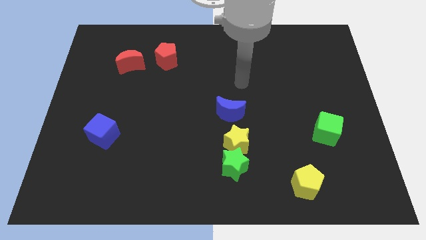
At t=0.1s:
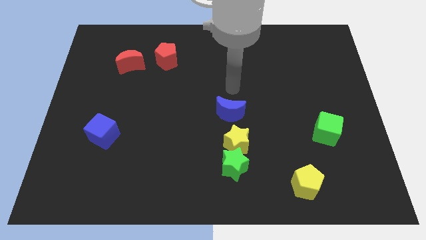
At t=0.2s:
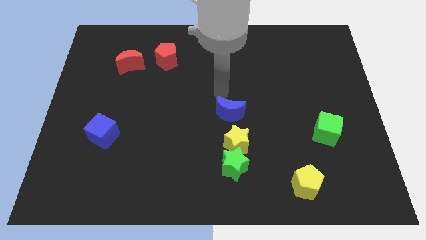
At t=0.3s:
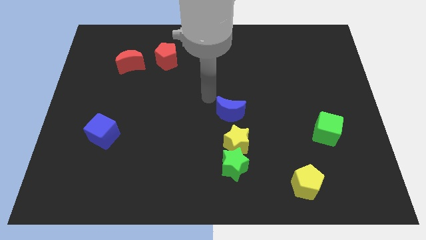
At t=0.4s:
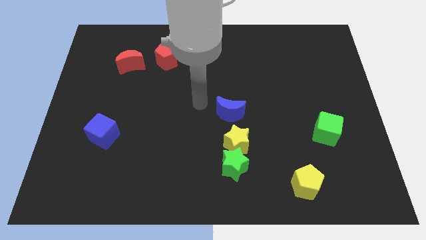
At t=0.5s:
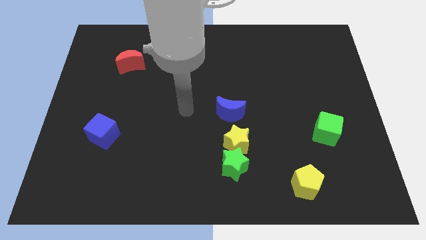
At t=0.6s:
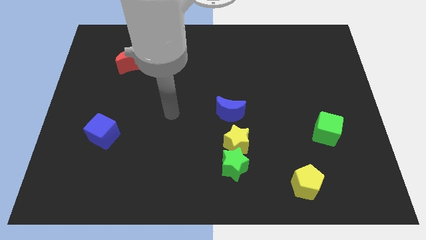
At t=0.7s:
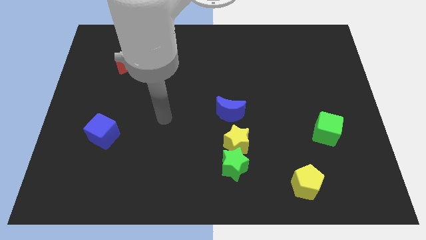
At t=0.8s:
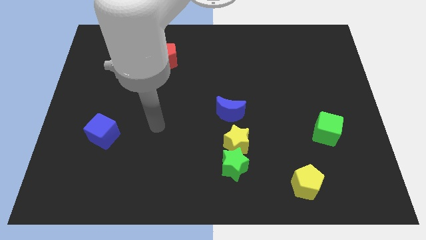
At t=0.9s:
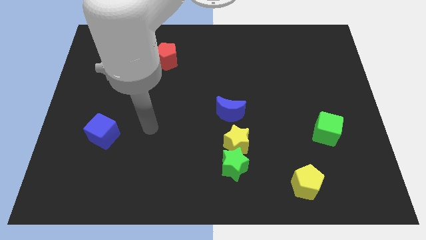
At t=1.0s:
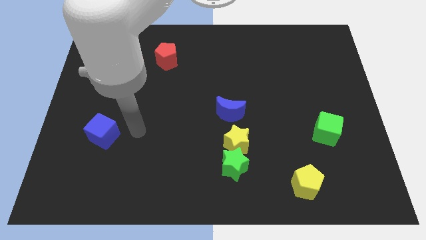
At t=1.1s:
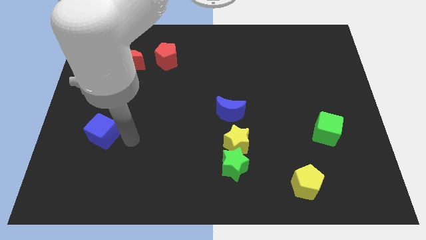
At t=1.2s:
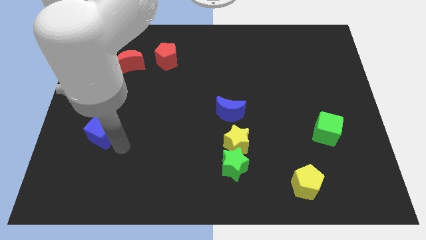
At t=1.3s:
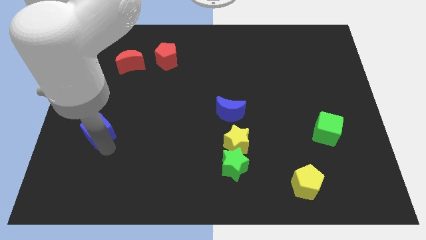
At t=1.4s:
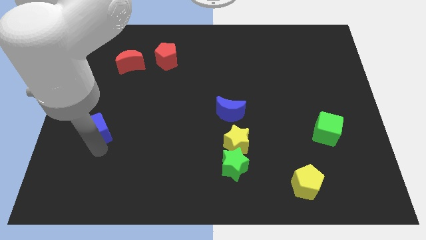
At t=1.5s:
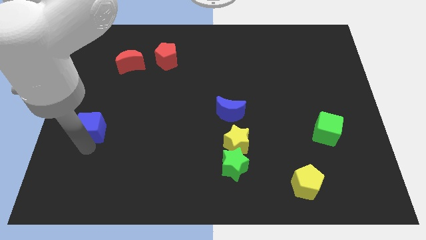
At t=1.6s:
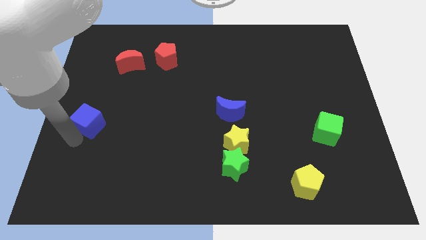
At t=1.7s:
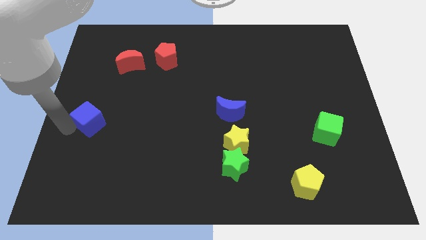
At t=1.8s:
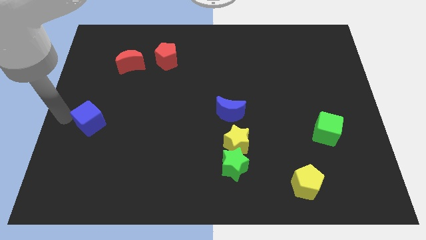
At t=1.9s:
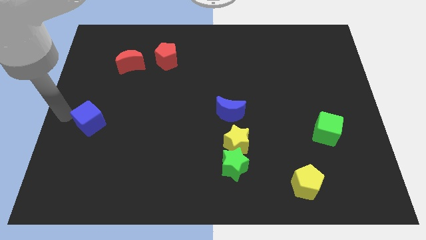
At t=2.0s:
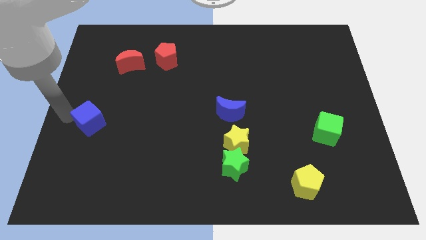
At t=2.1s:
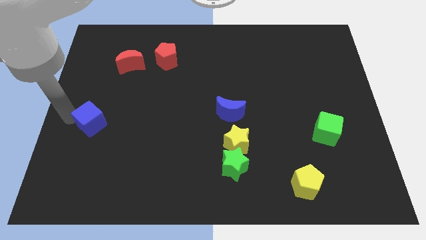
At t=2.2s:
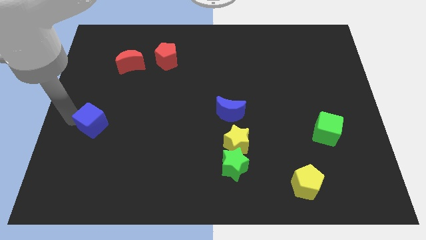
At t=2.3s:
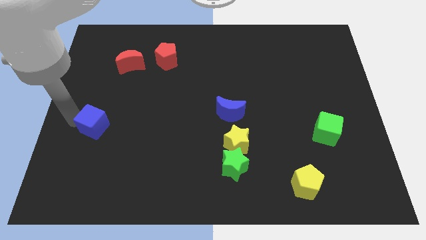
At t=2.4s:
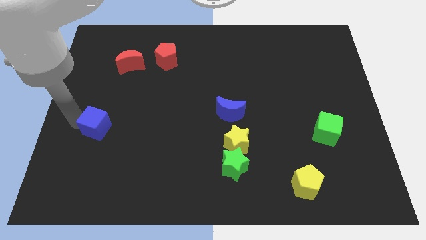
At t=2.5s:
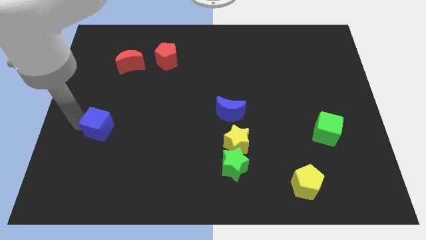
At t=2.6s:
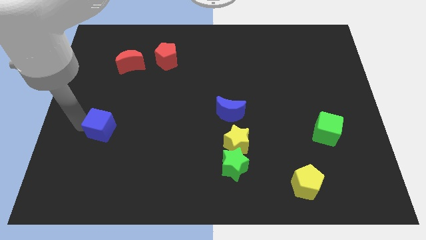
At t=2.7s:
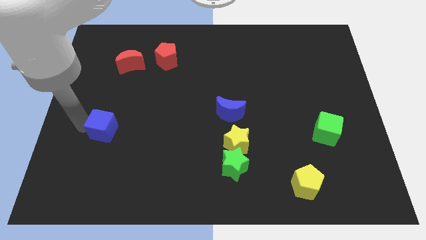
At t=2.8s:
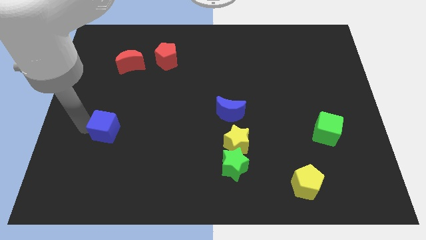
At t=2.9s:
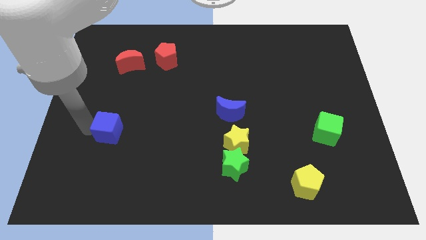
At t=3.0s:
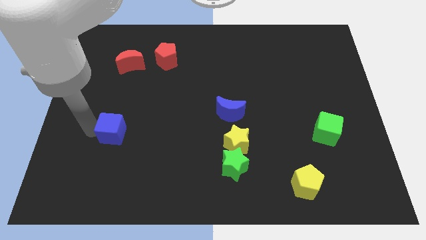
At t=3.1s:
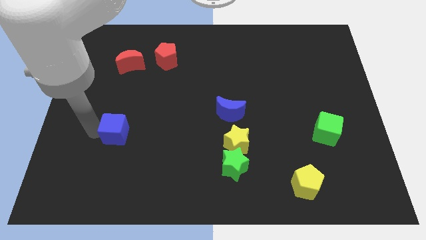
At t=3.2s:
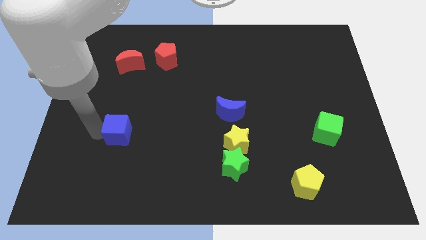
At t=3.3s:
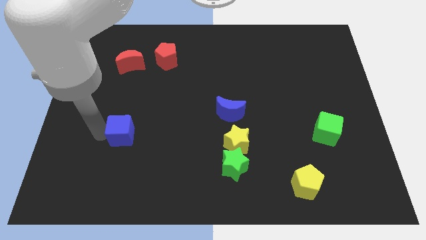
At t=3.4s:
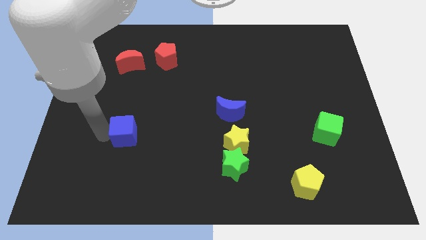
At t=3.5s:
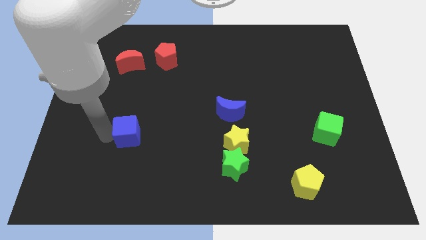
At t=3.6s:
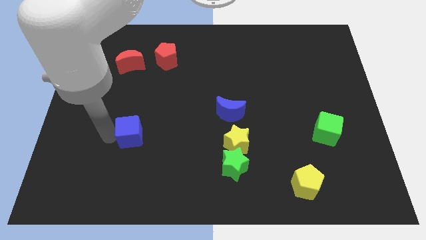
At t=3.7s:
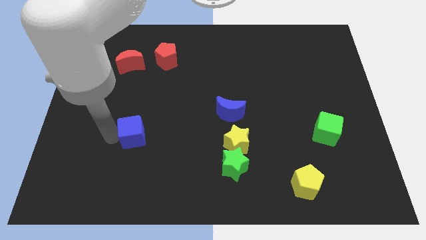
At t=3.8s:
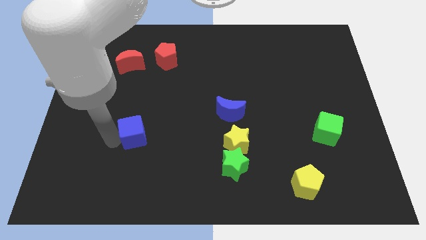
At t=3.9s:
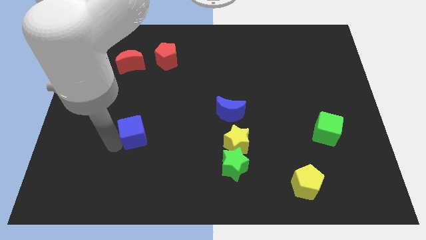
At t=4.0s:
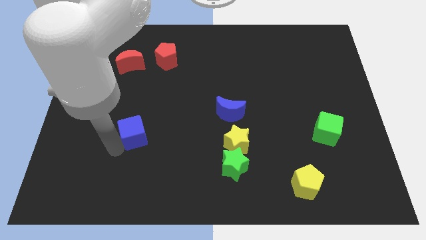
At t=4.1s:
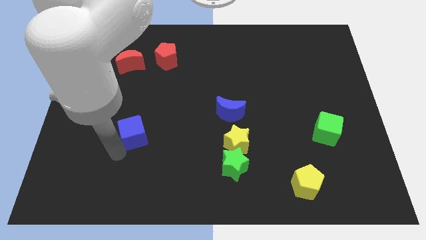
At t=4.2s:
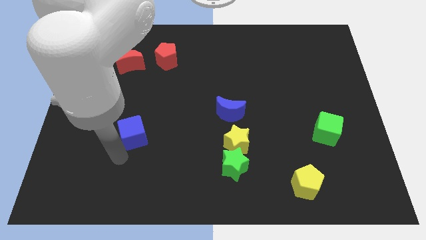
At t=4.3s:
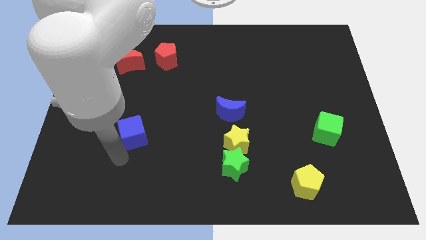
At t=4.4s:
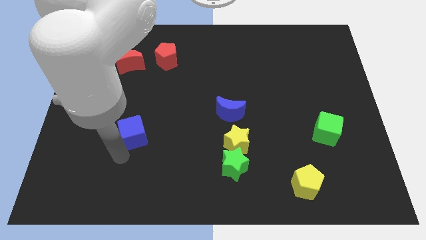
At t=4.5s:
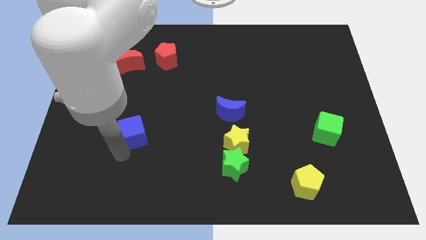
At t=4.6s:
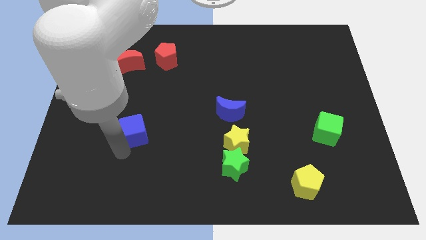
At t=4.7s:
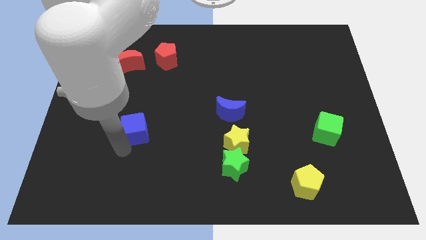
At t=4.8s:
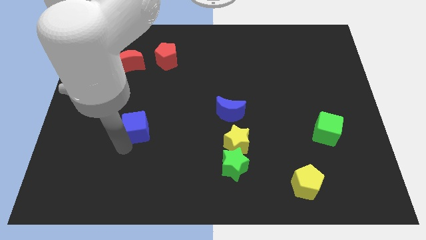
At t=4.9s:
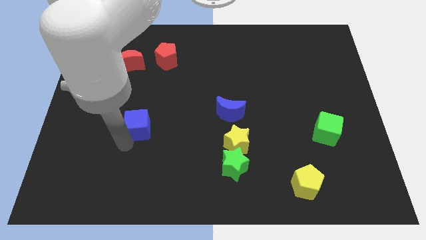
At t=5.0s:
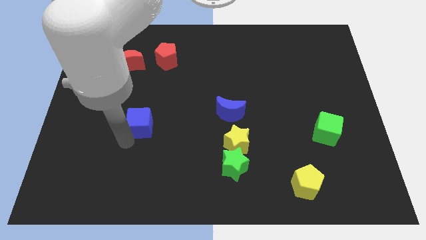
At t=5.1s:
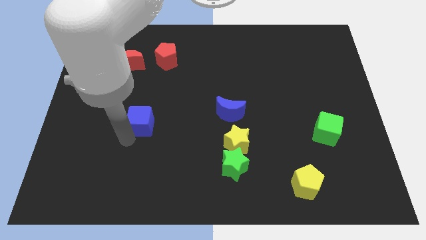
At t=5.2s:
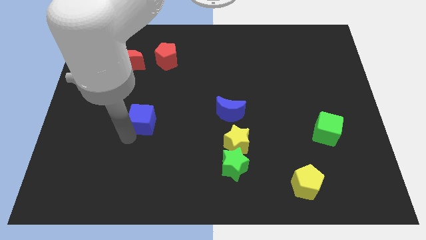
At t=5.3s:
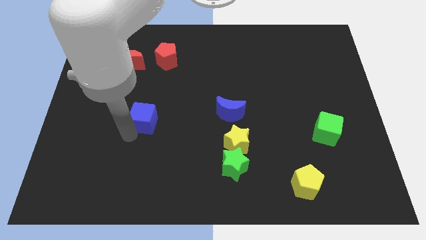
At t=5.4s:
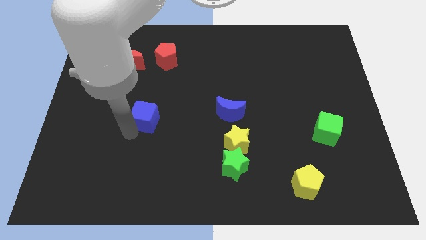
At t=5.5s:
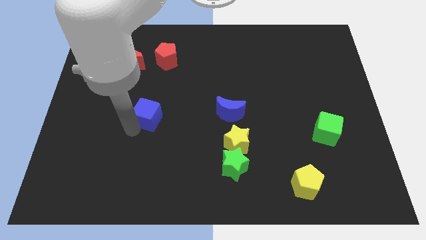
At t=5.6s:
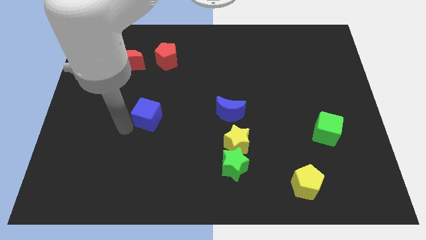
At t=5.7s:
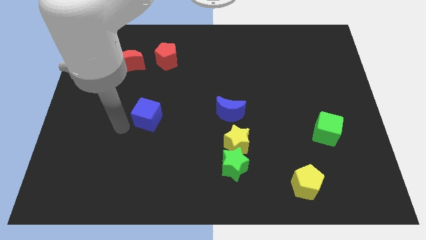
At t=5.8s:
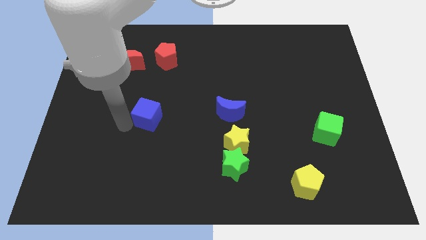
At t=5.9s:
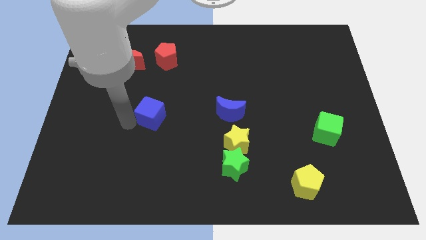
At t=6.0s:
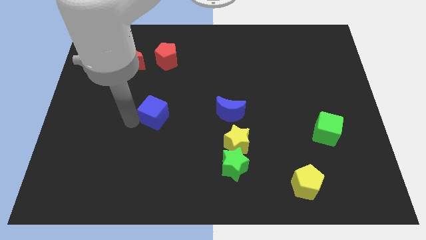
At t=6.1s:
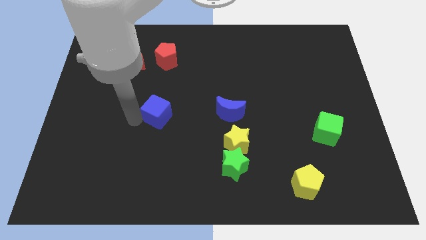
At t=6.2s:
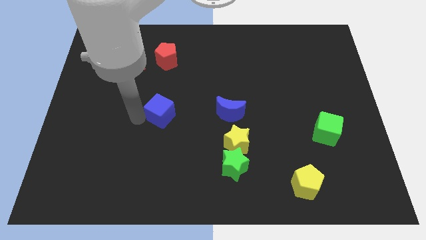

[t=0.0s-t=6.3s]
move the blue cube to the center of the board

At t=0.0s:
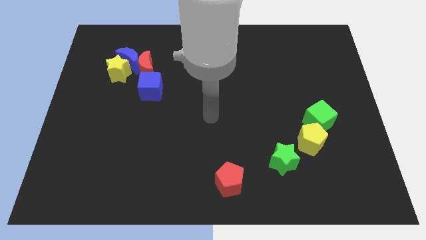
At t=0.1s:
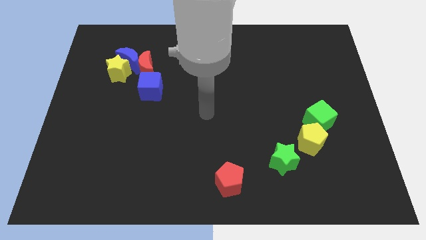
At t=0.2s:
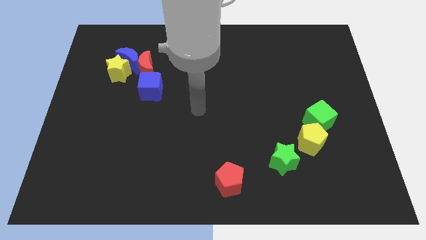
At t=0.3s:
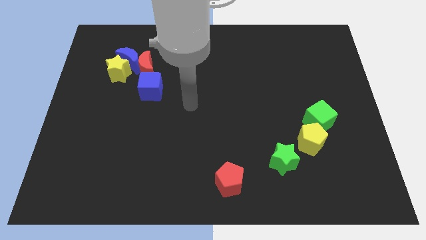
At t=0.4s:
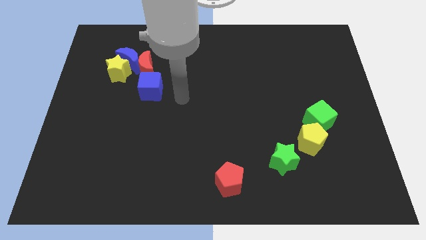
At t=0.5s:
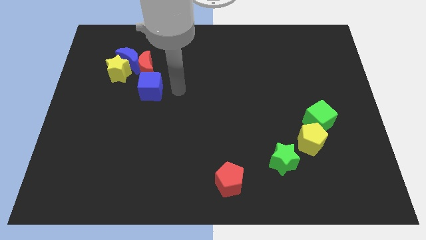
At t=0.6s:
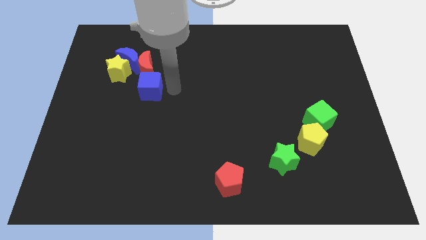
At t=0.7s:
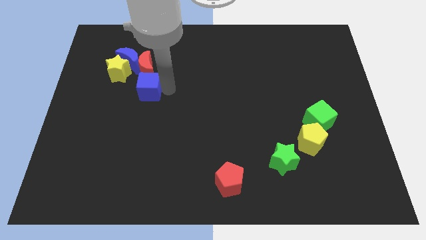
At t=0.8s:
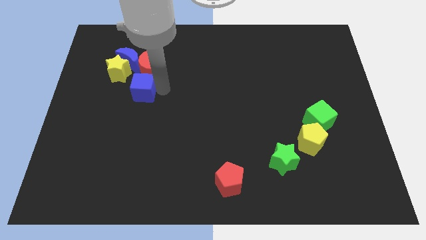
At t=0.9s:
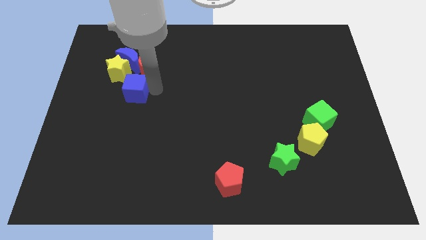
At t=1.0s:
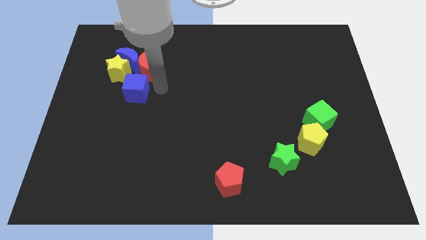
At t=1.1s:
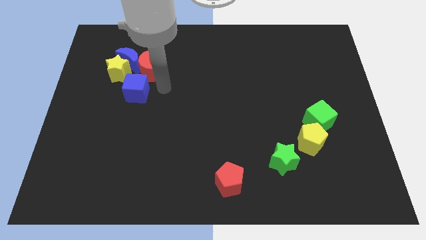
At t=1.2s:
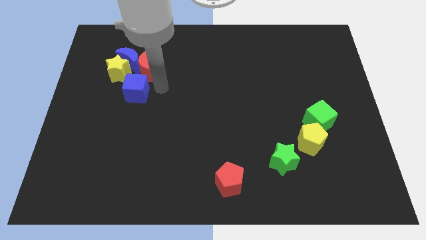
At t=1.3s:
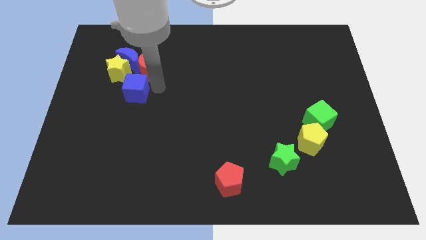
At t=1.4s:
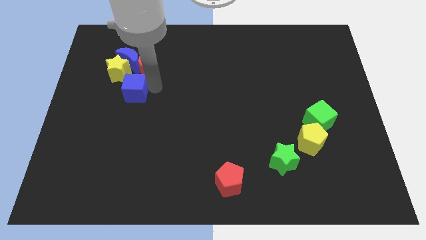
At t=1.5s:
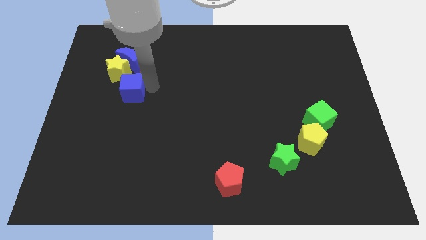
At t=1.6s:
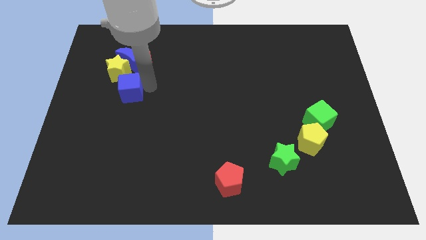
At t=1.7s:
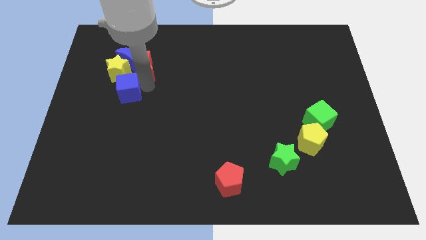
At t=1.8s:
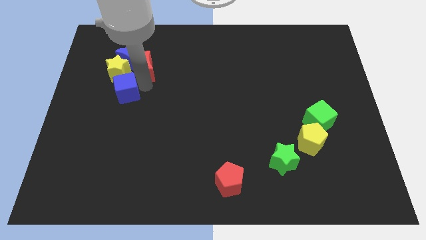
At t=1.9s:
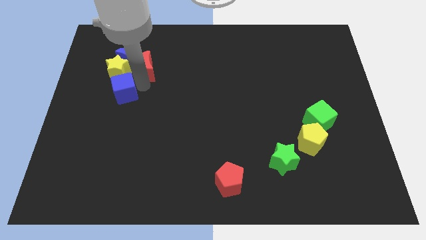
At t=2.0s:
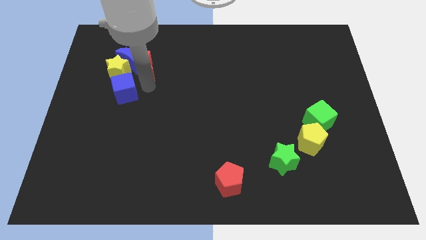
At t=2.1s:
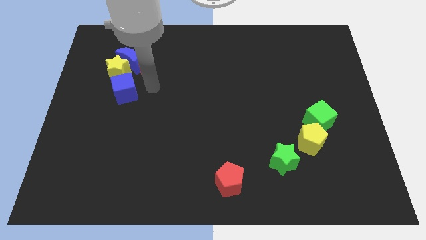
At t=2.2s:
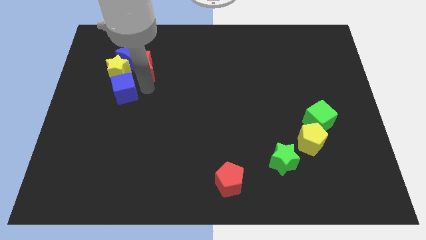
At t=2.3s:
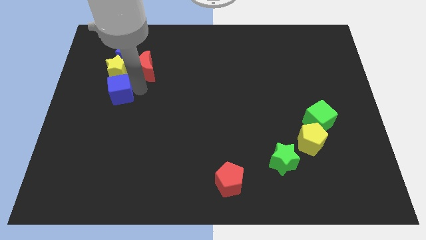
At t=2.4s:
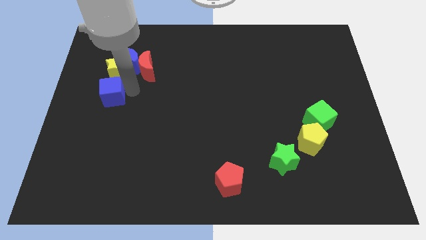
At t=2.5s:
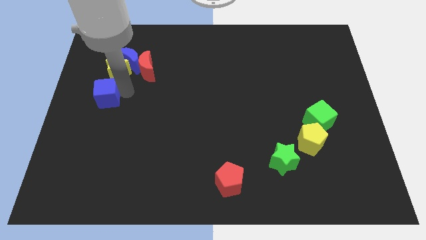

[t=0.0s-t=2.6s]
move the blue cube to the left side of the board
